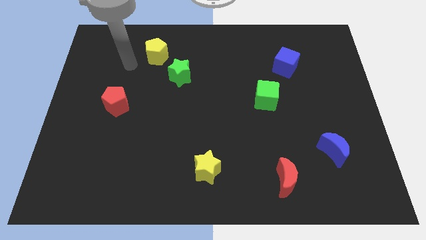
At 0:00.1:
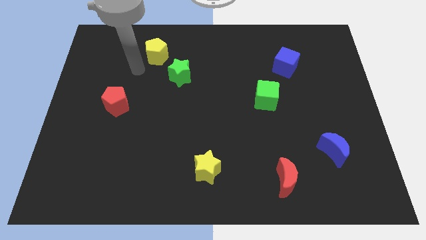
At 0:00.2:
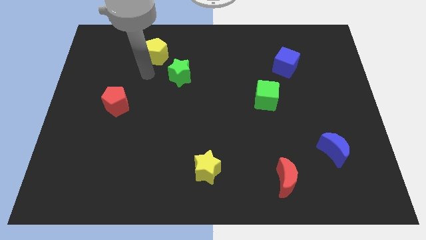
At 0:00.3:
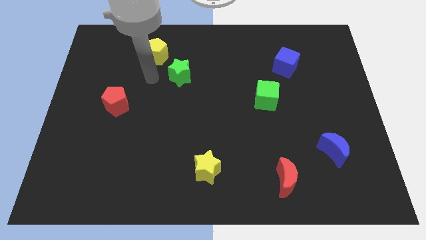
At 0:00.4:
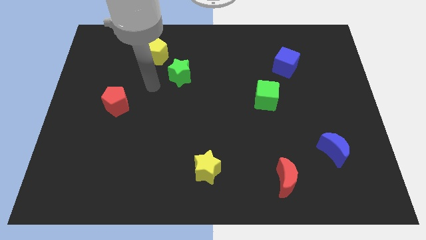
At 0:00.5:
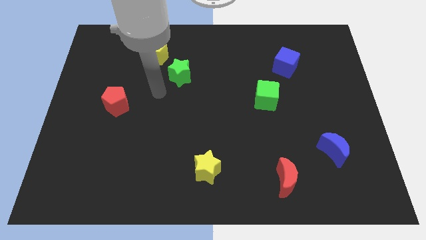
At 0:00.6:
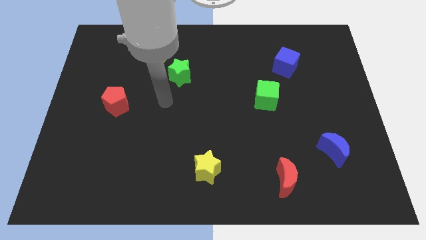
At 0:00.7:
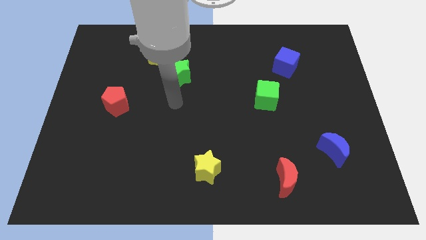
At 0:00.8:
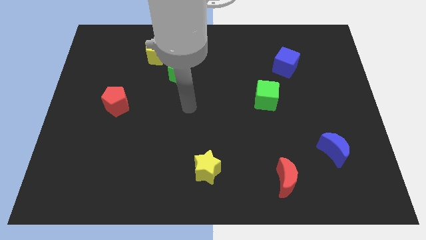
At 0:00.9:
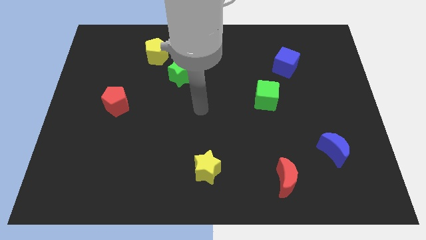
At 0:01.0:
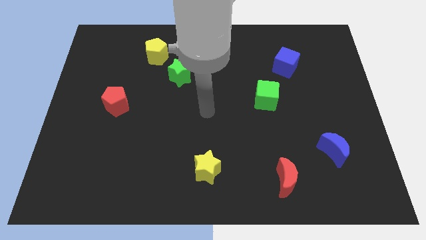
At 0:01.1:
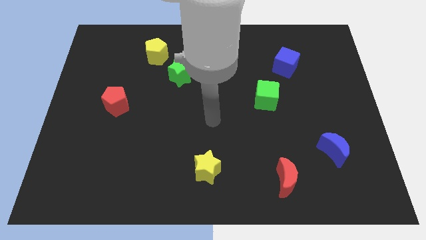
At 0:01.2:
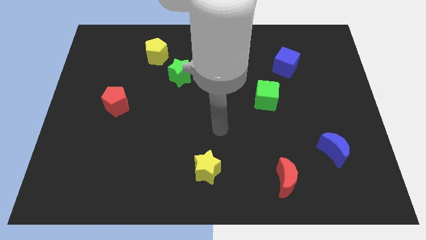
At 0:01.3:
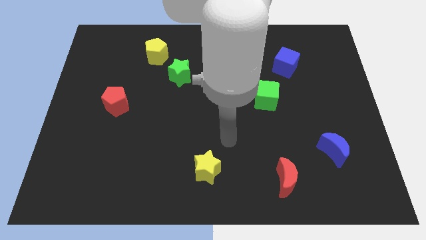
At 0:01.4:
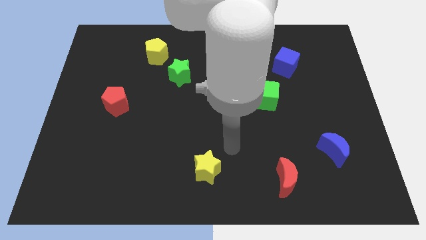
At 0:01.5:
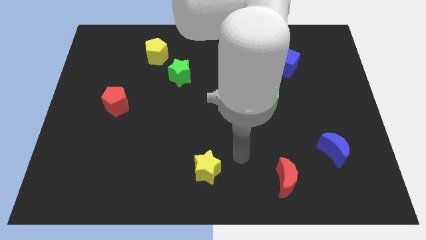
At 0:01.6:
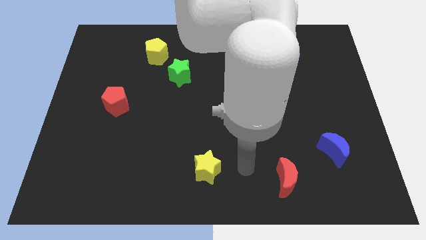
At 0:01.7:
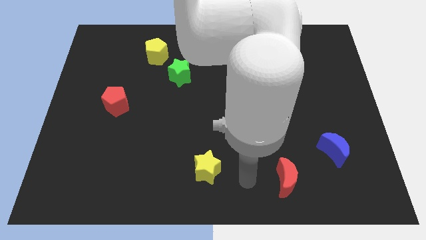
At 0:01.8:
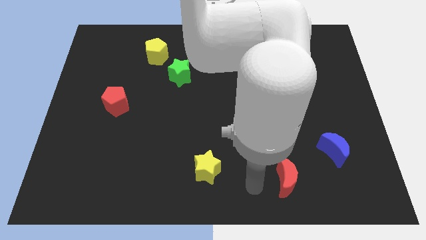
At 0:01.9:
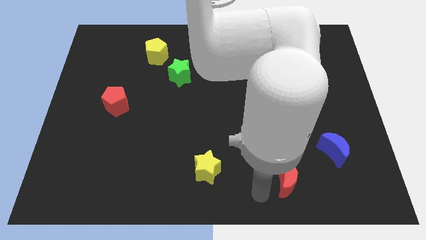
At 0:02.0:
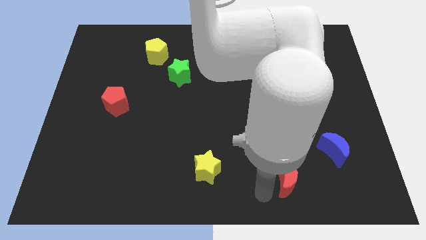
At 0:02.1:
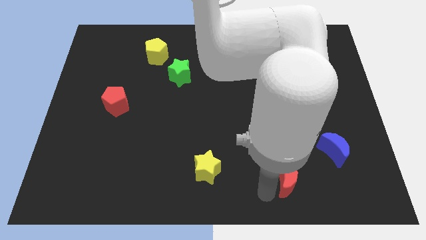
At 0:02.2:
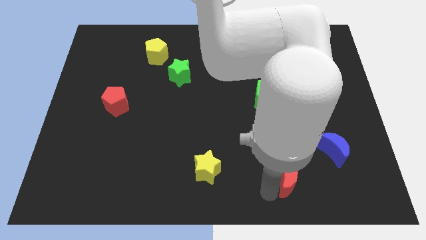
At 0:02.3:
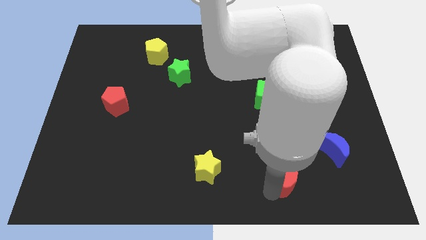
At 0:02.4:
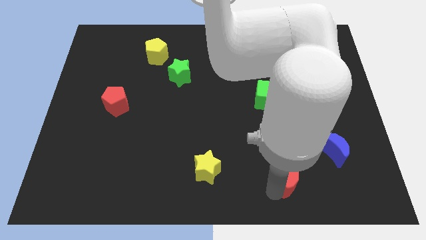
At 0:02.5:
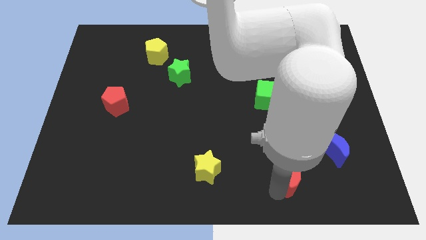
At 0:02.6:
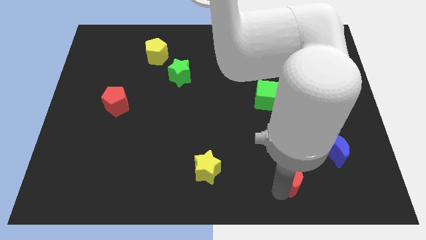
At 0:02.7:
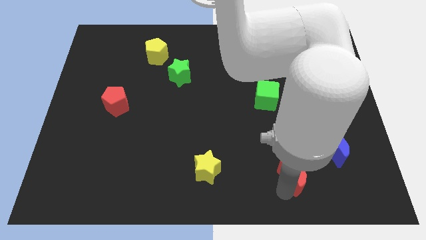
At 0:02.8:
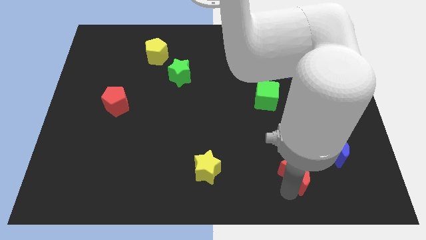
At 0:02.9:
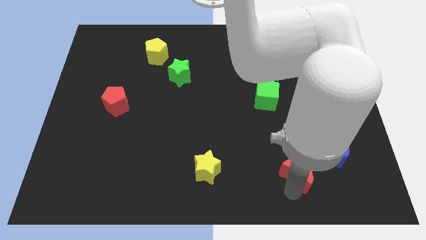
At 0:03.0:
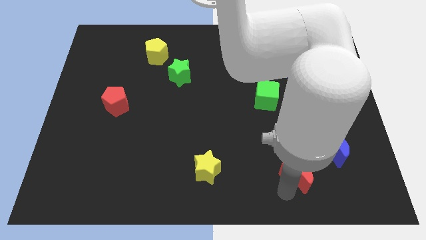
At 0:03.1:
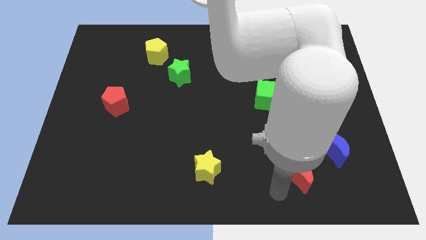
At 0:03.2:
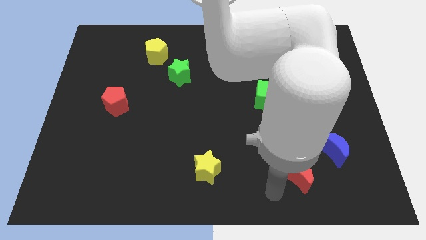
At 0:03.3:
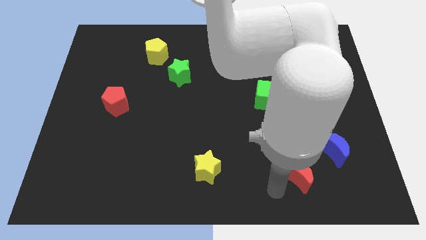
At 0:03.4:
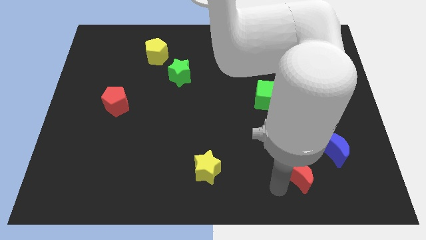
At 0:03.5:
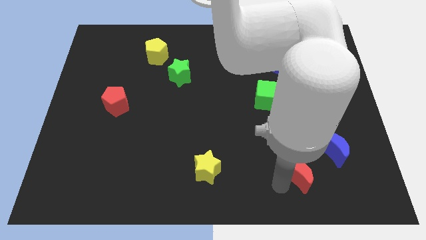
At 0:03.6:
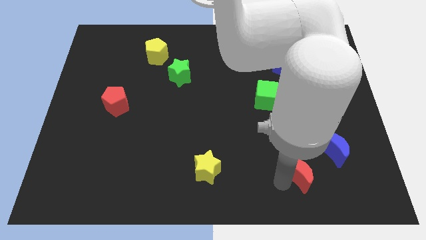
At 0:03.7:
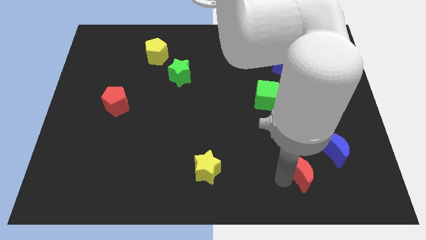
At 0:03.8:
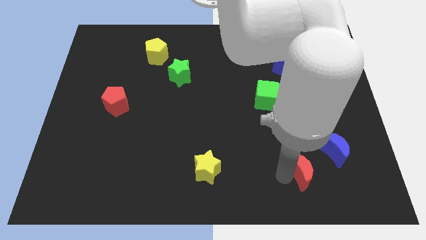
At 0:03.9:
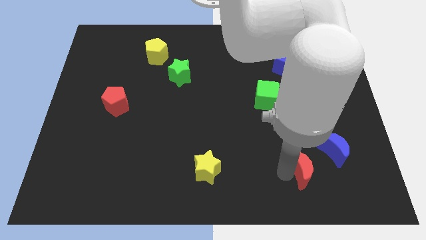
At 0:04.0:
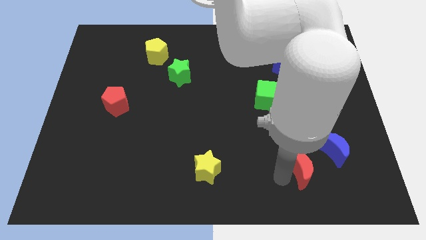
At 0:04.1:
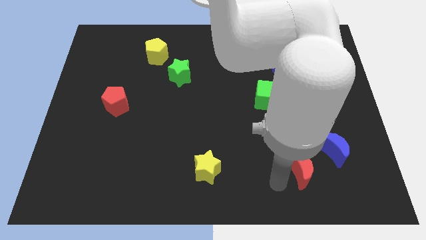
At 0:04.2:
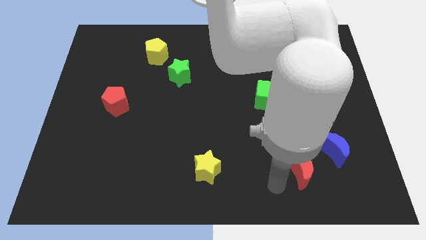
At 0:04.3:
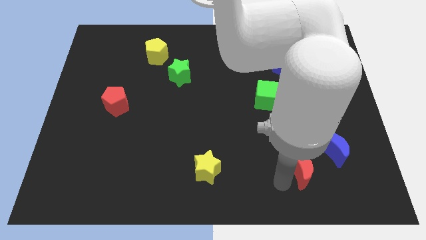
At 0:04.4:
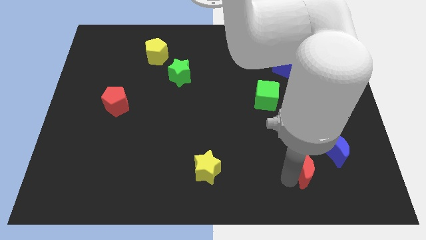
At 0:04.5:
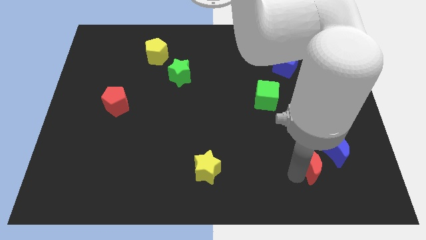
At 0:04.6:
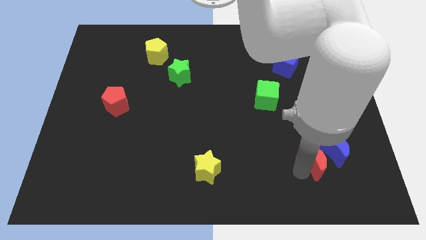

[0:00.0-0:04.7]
move the red moon next to the blue moon

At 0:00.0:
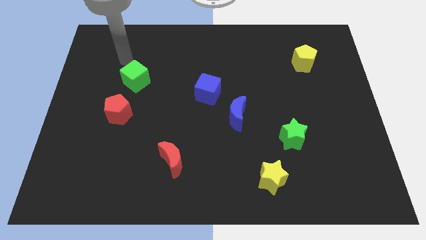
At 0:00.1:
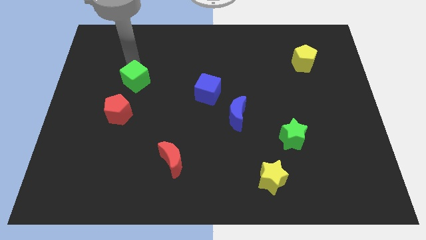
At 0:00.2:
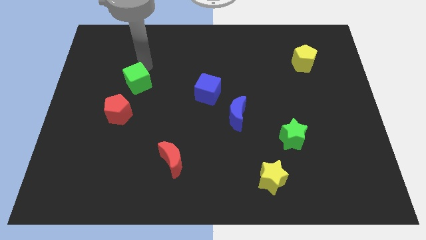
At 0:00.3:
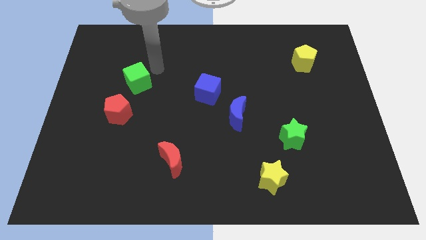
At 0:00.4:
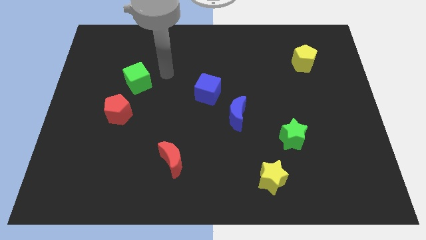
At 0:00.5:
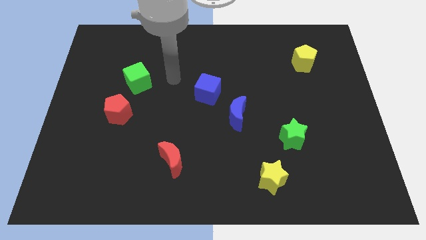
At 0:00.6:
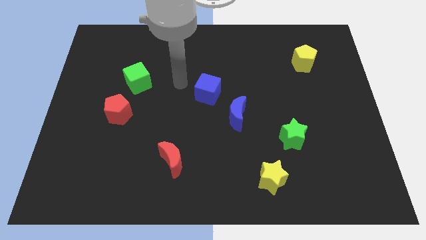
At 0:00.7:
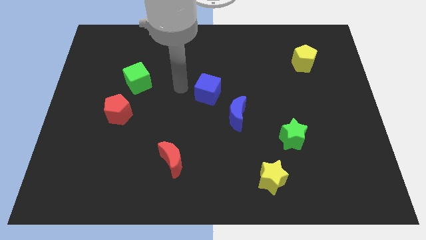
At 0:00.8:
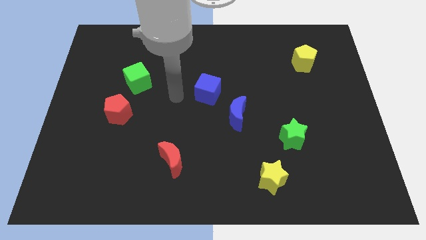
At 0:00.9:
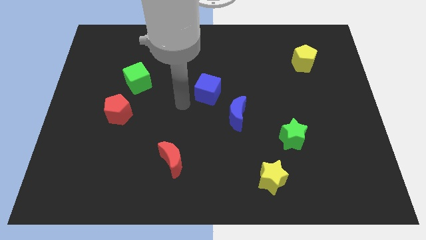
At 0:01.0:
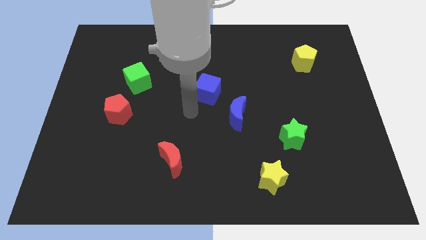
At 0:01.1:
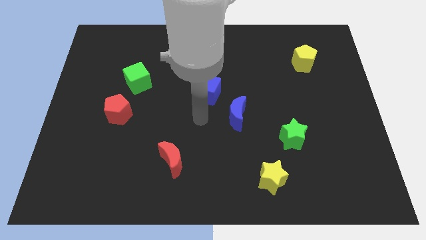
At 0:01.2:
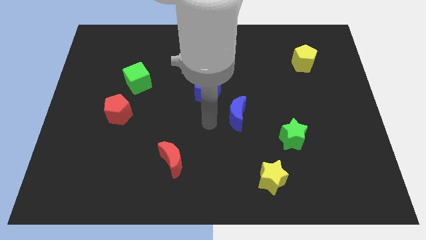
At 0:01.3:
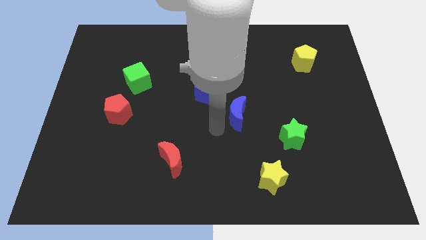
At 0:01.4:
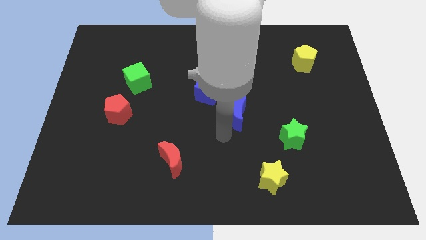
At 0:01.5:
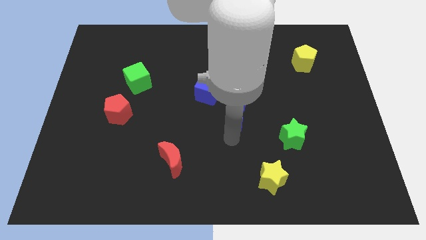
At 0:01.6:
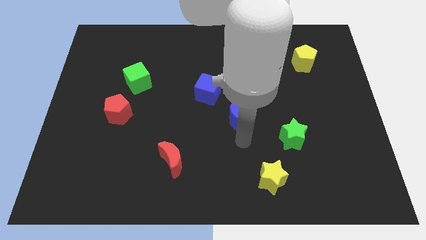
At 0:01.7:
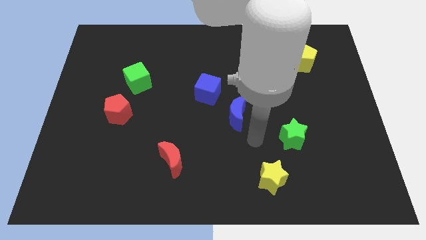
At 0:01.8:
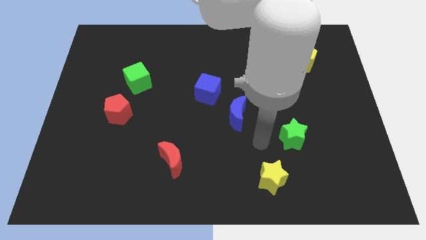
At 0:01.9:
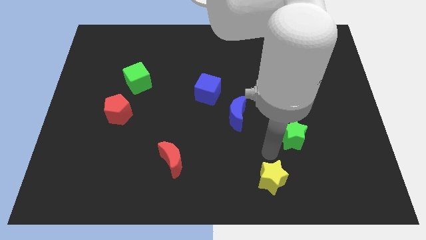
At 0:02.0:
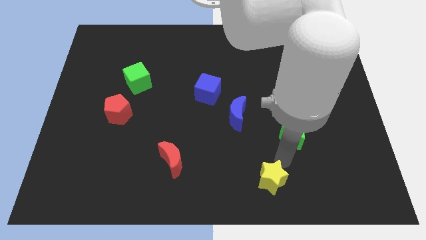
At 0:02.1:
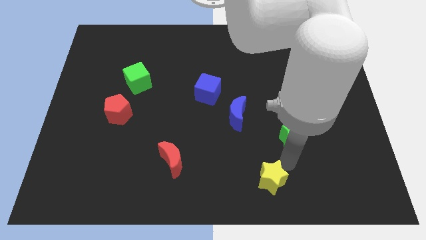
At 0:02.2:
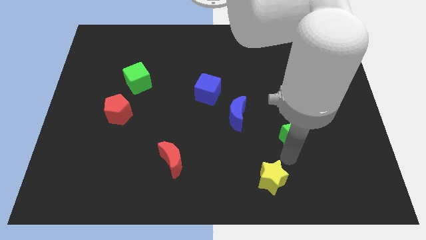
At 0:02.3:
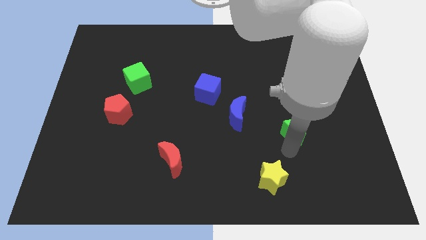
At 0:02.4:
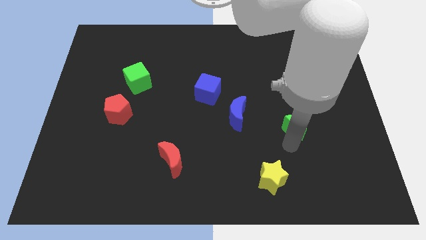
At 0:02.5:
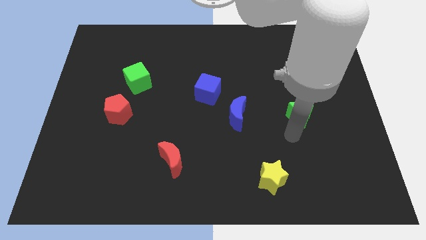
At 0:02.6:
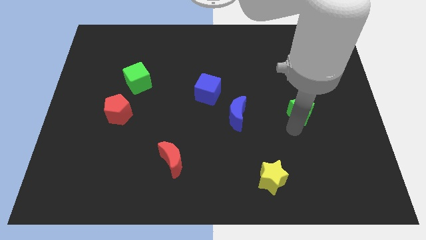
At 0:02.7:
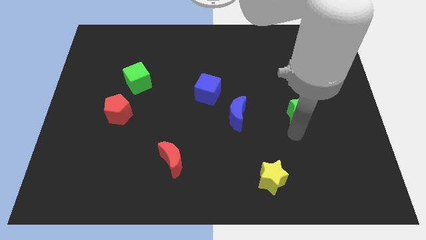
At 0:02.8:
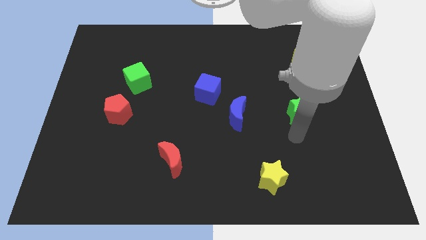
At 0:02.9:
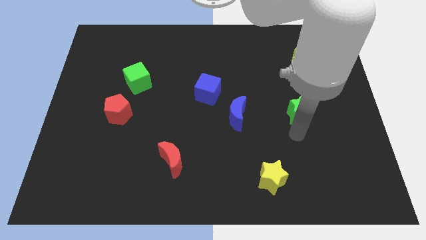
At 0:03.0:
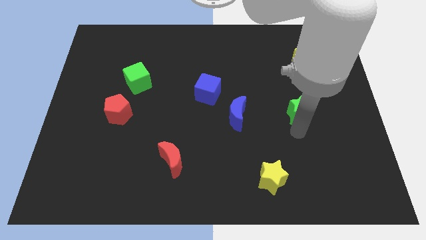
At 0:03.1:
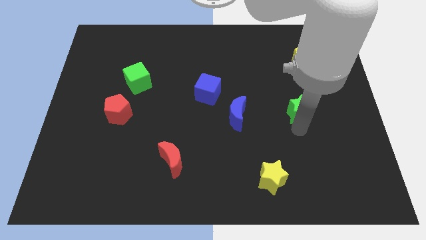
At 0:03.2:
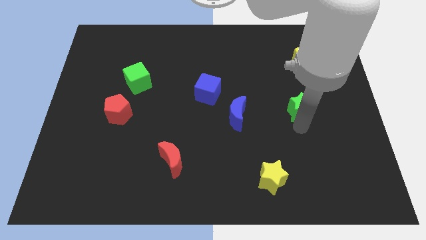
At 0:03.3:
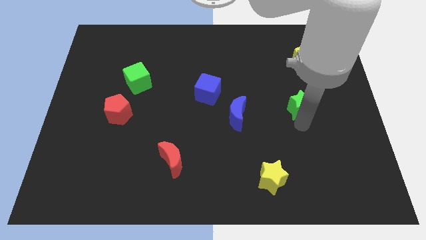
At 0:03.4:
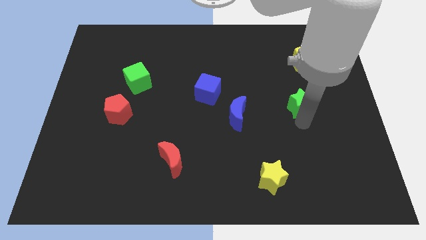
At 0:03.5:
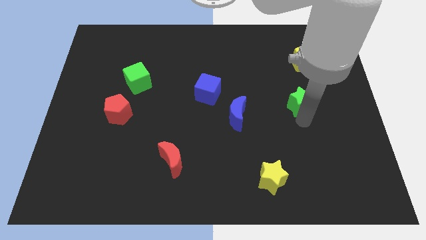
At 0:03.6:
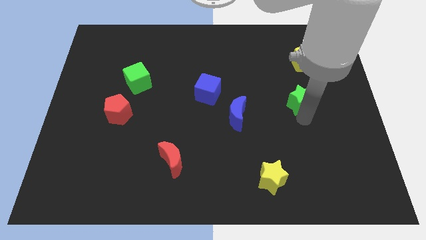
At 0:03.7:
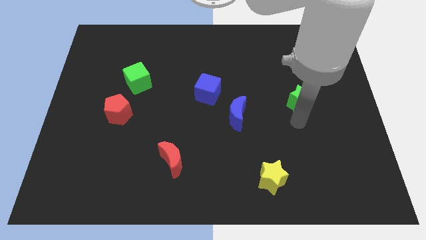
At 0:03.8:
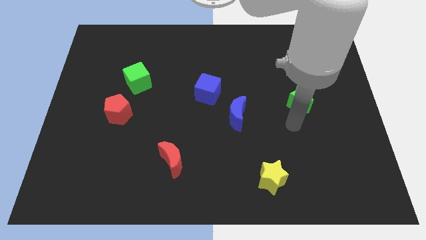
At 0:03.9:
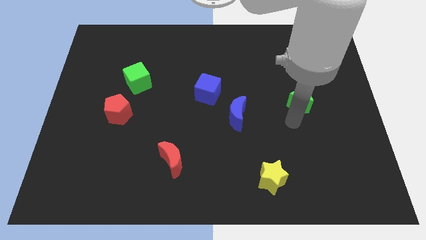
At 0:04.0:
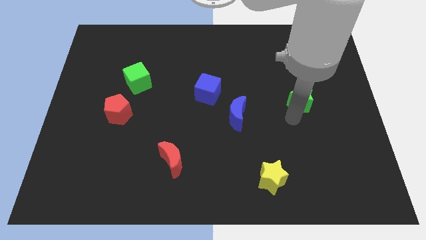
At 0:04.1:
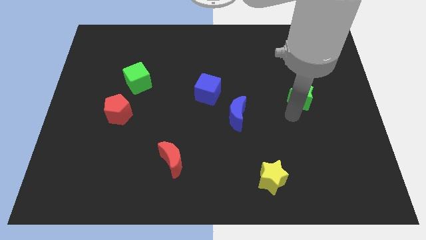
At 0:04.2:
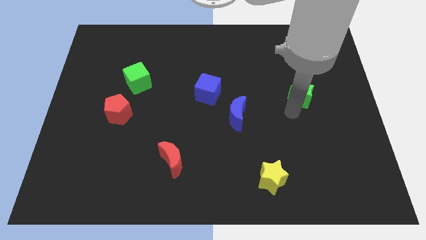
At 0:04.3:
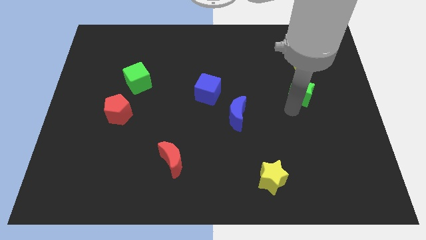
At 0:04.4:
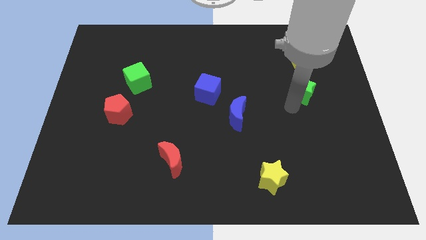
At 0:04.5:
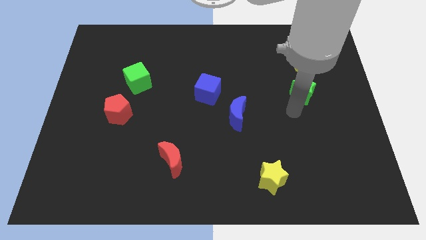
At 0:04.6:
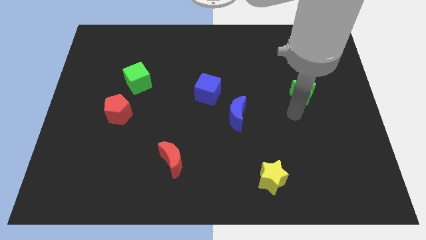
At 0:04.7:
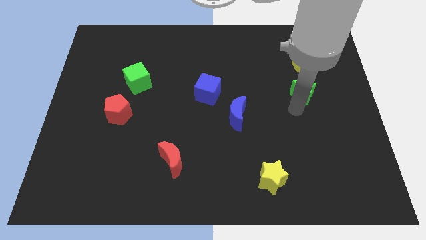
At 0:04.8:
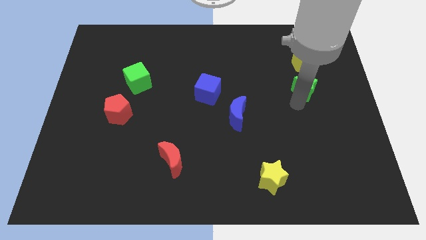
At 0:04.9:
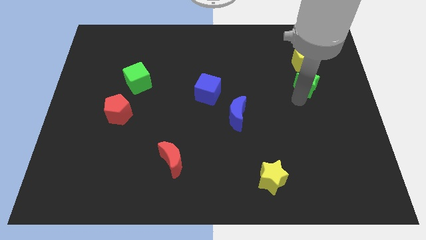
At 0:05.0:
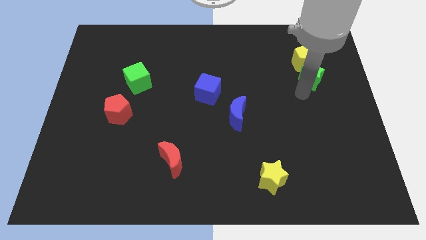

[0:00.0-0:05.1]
put the green star close to the yellow pentagon
